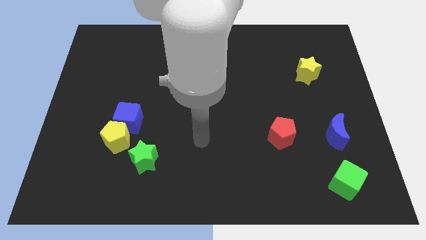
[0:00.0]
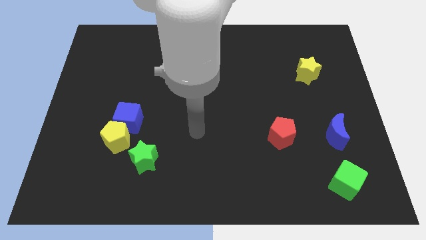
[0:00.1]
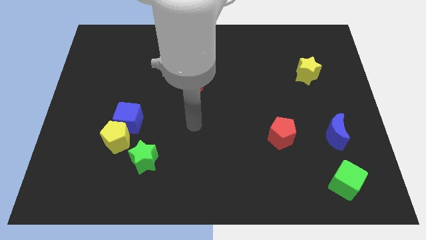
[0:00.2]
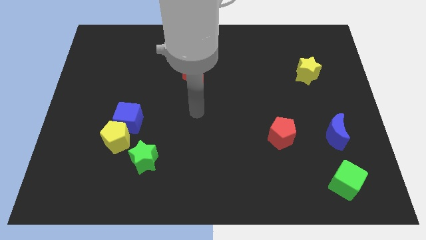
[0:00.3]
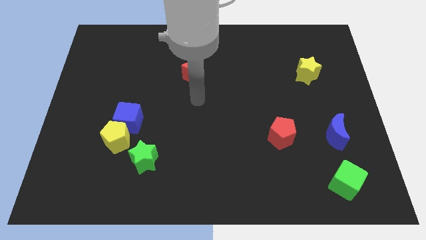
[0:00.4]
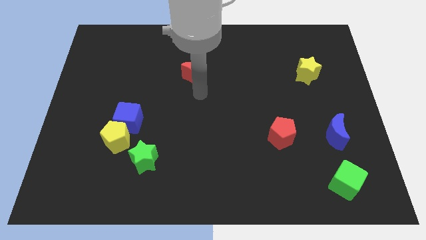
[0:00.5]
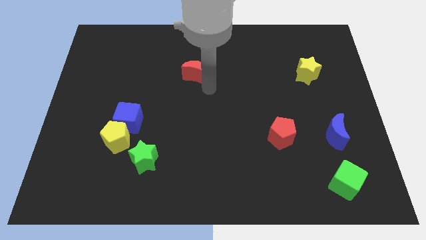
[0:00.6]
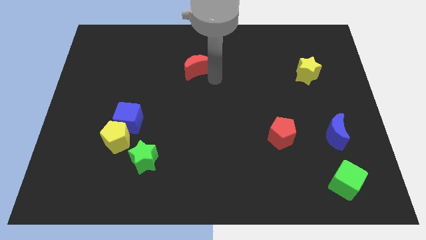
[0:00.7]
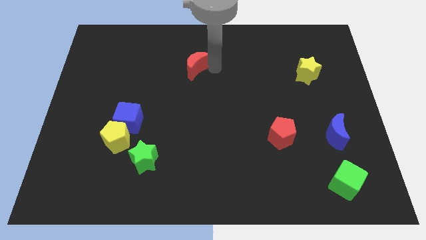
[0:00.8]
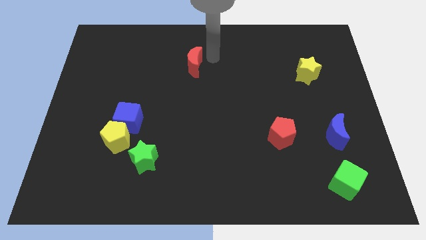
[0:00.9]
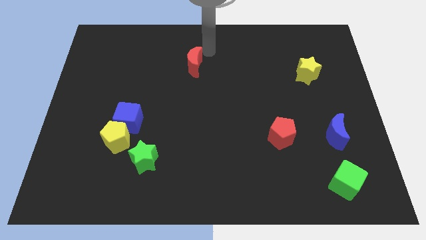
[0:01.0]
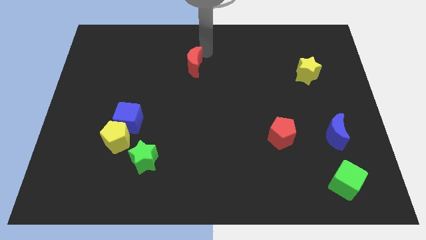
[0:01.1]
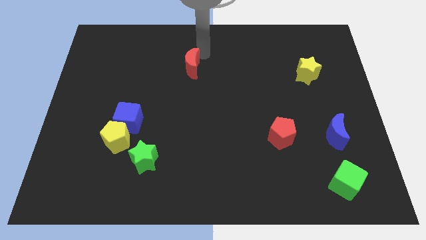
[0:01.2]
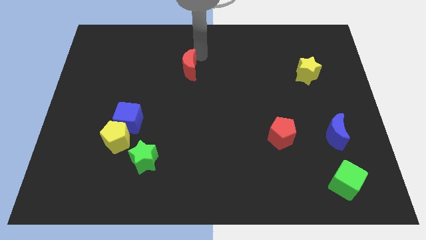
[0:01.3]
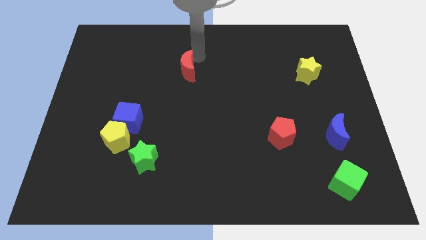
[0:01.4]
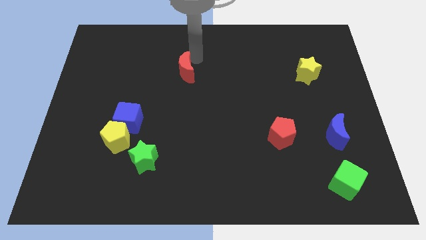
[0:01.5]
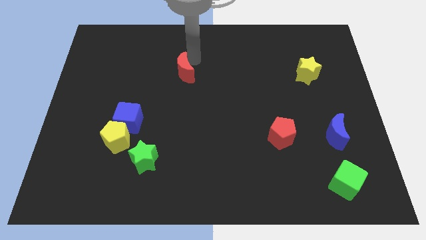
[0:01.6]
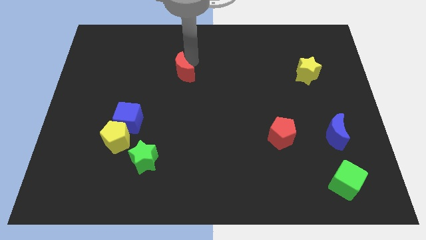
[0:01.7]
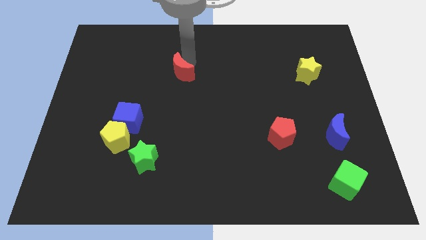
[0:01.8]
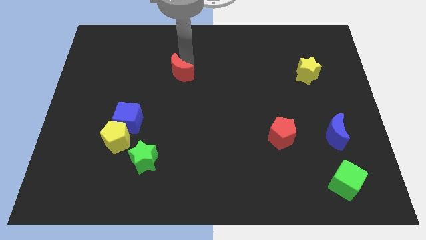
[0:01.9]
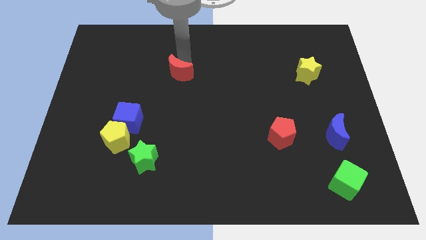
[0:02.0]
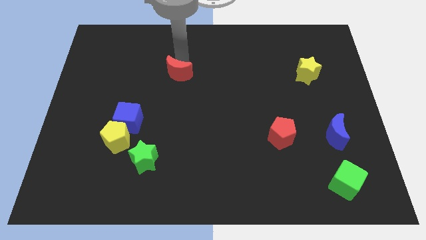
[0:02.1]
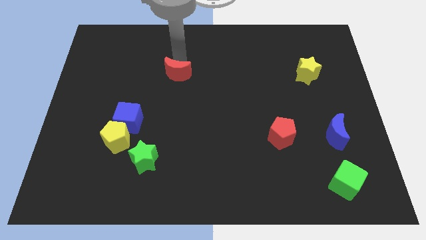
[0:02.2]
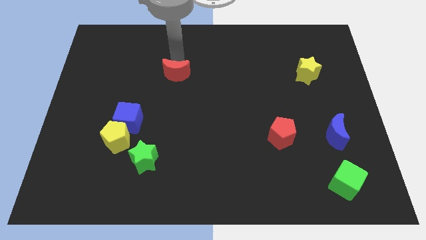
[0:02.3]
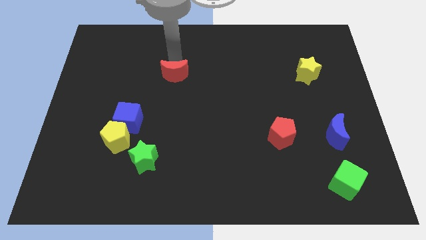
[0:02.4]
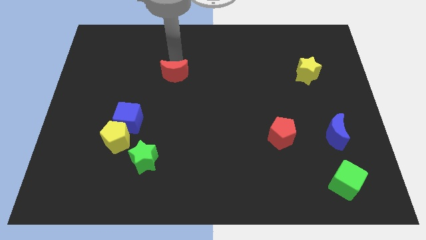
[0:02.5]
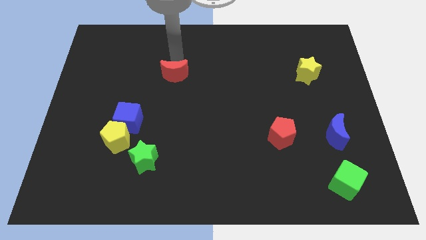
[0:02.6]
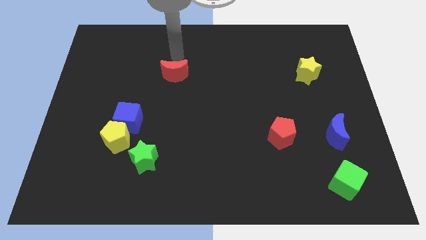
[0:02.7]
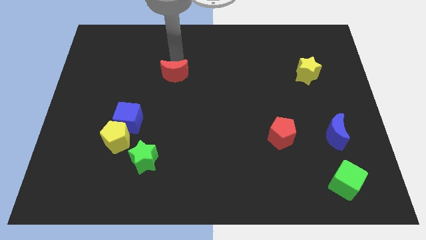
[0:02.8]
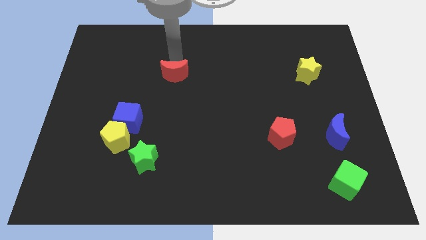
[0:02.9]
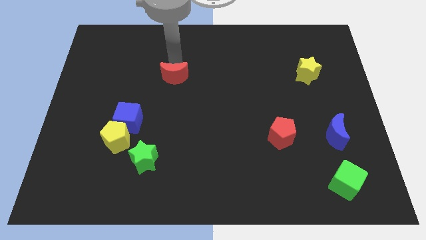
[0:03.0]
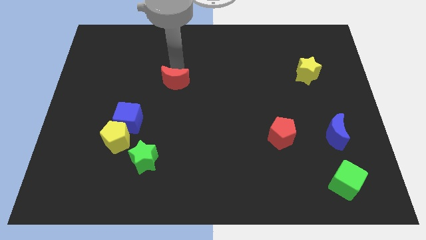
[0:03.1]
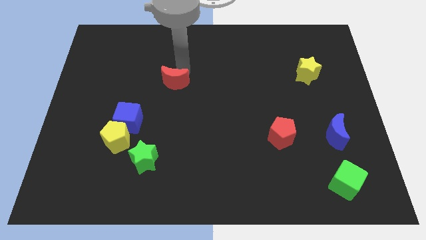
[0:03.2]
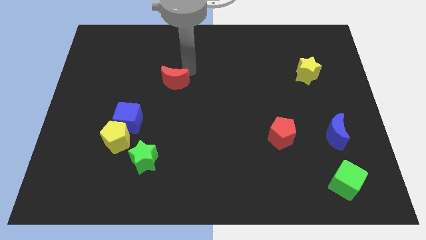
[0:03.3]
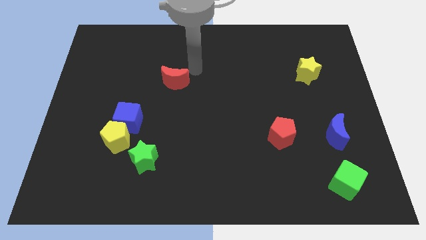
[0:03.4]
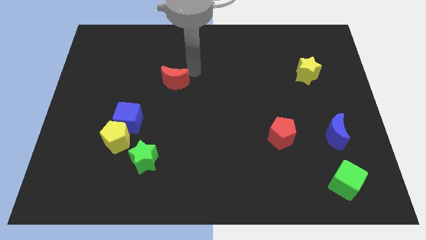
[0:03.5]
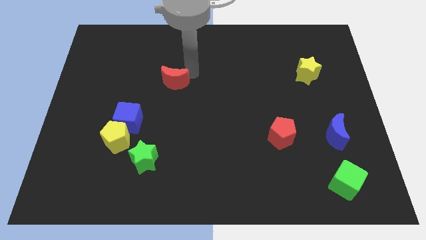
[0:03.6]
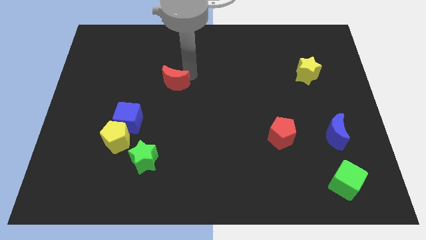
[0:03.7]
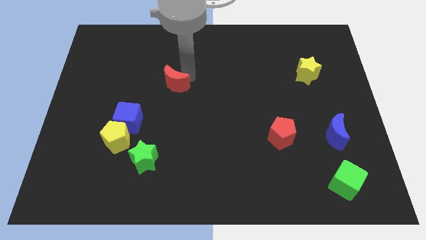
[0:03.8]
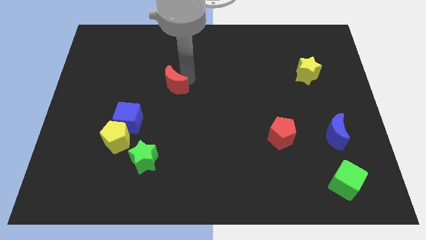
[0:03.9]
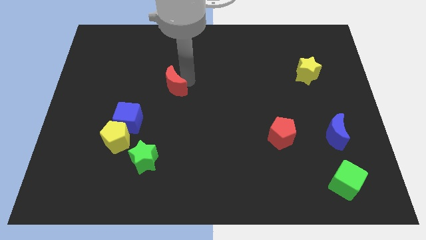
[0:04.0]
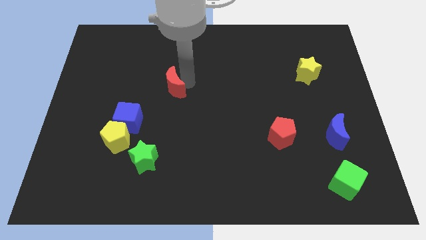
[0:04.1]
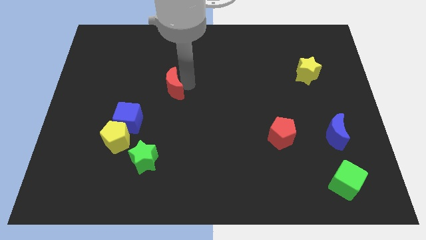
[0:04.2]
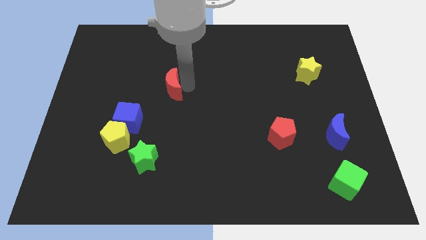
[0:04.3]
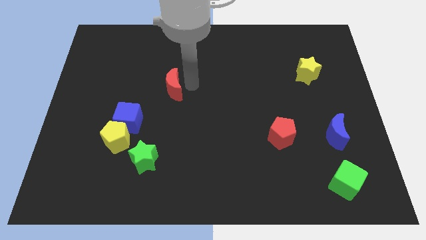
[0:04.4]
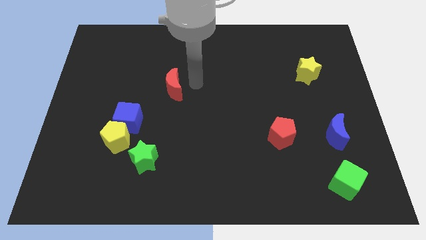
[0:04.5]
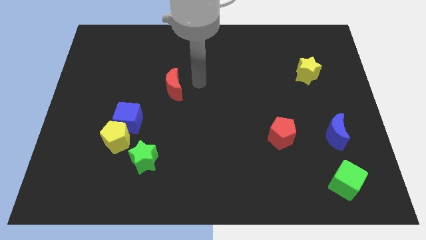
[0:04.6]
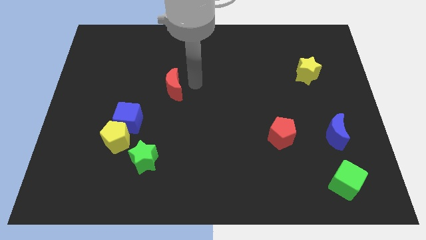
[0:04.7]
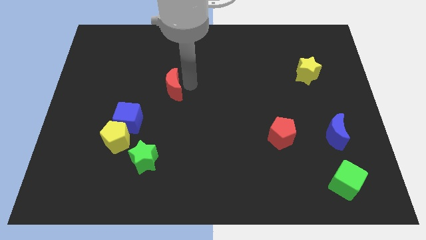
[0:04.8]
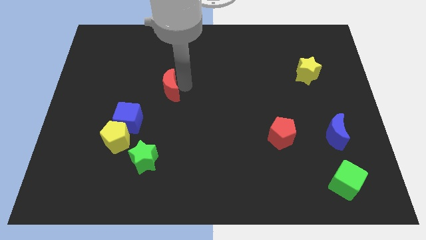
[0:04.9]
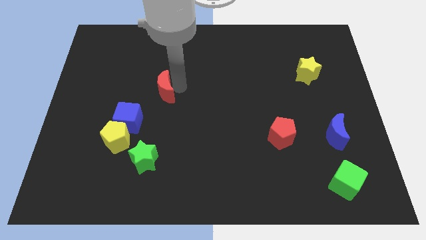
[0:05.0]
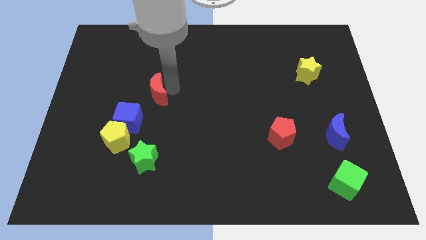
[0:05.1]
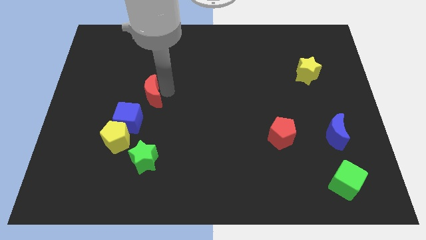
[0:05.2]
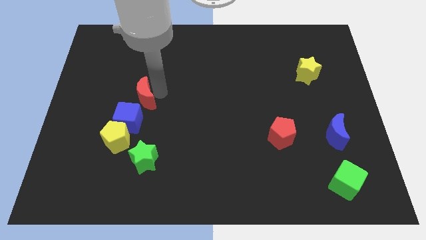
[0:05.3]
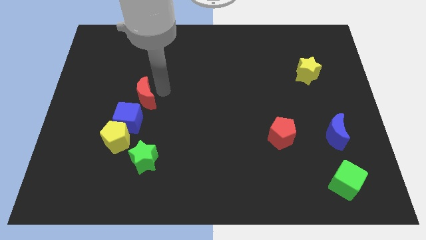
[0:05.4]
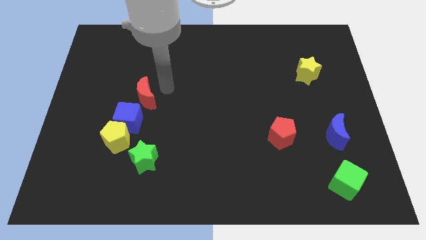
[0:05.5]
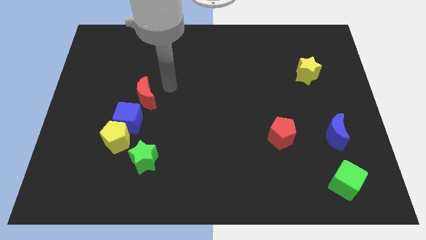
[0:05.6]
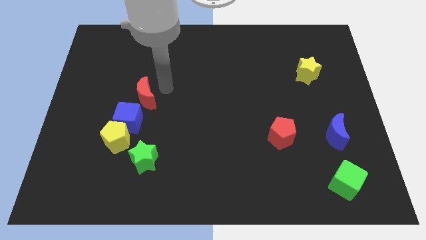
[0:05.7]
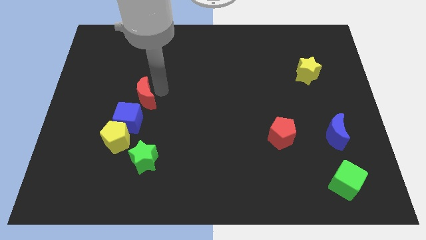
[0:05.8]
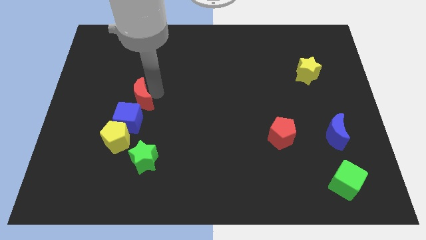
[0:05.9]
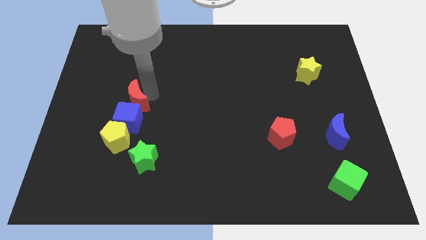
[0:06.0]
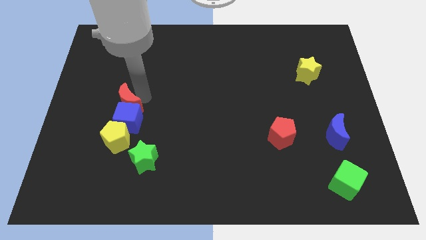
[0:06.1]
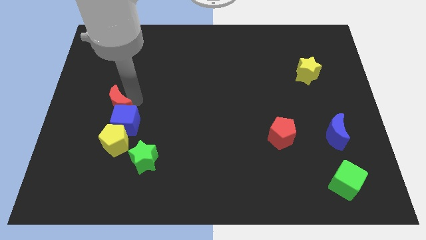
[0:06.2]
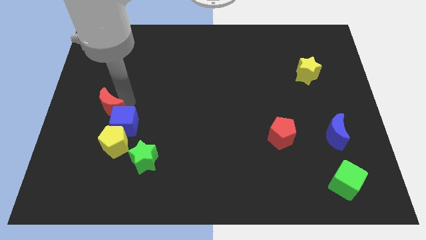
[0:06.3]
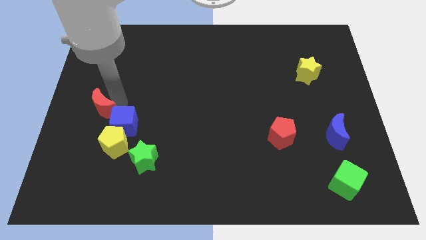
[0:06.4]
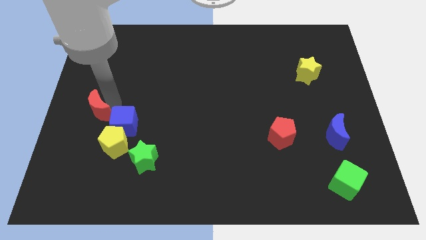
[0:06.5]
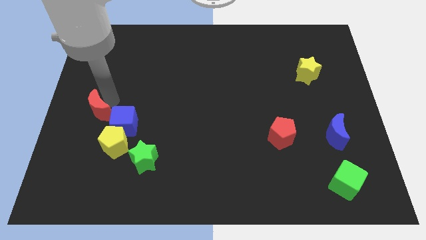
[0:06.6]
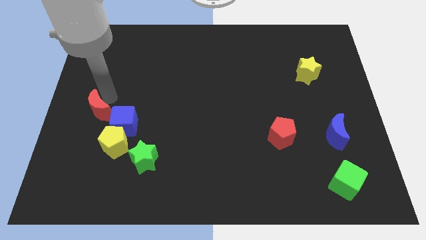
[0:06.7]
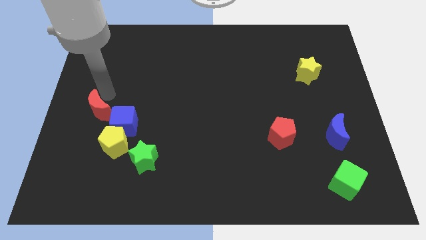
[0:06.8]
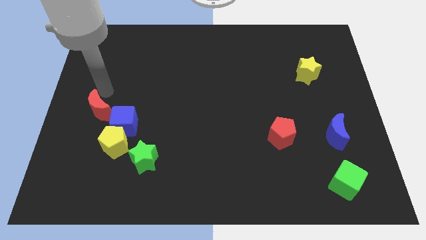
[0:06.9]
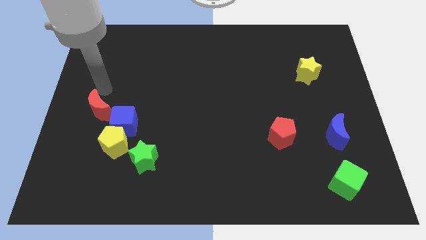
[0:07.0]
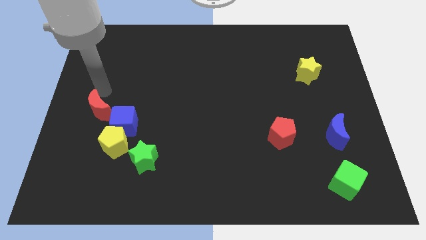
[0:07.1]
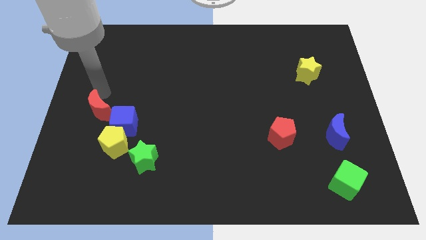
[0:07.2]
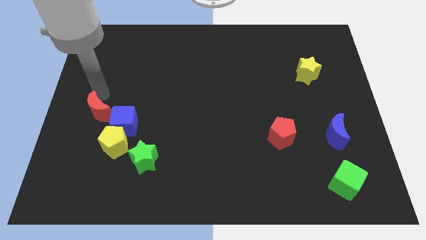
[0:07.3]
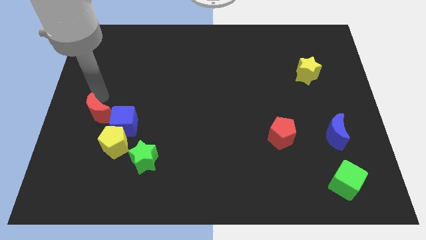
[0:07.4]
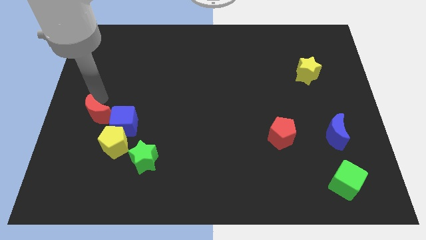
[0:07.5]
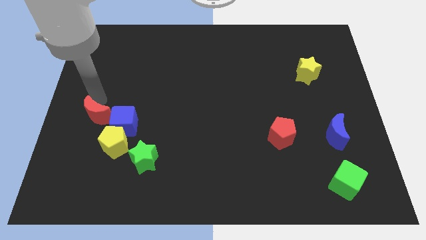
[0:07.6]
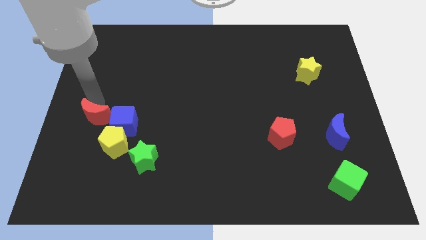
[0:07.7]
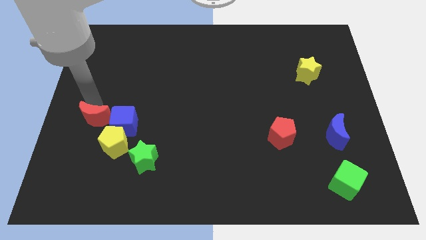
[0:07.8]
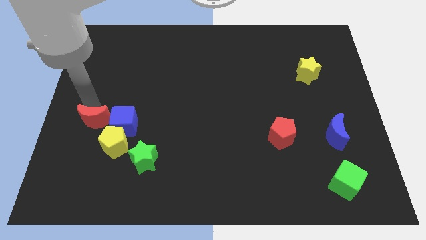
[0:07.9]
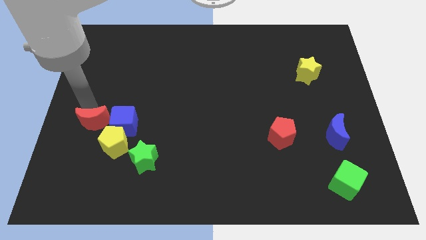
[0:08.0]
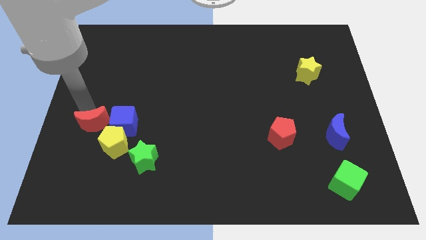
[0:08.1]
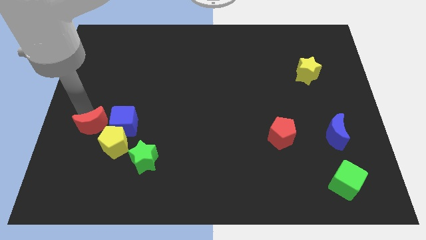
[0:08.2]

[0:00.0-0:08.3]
move the red moon to the bottom left side of the blue cube

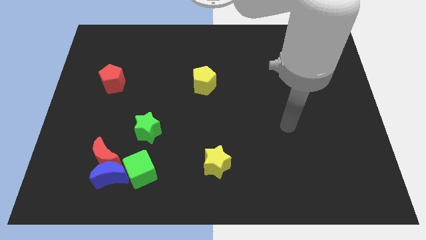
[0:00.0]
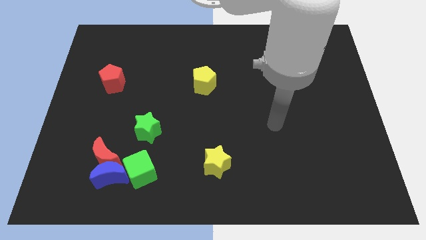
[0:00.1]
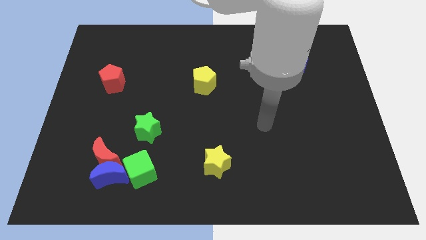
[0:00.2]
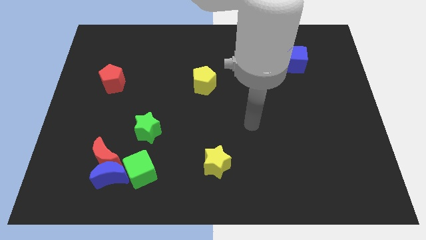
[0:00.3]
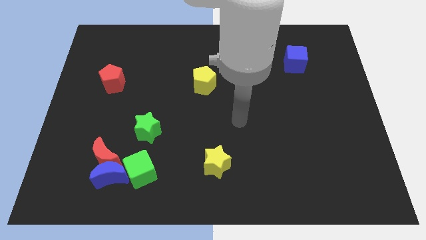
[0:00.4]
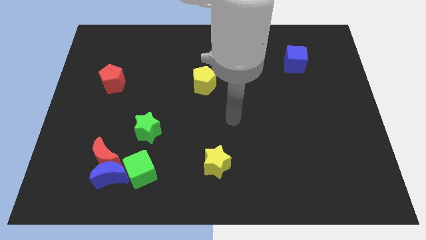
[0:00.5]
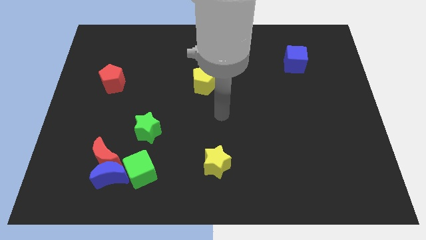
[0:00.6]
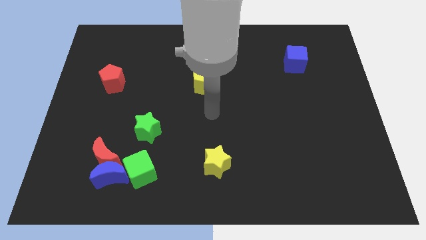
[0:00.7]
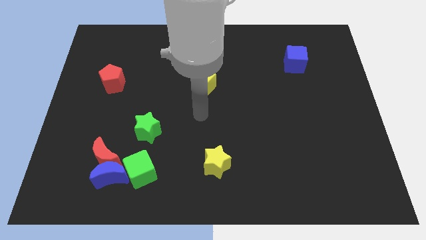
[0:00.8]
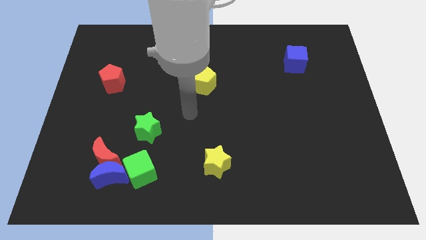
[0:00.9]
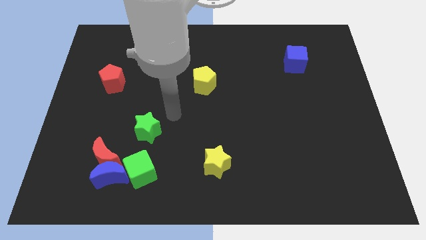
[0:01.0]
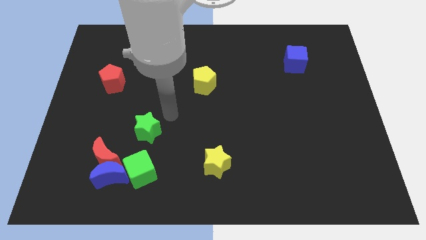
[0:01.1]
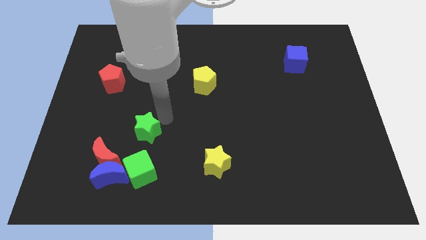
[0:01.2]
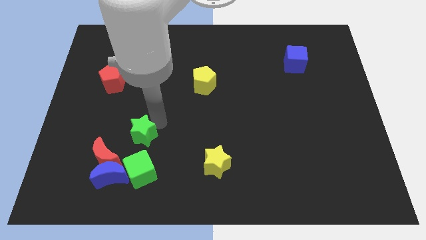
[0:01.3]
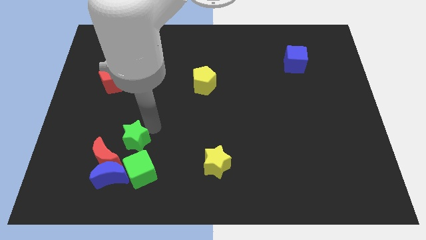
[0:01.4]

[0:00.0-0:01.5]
slide the green star to the top left of the green cube
